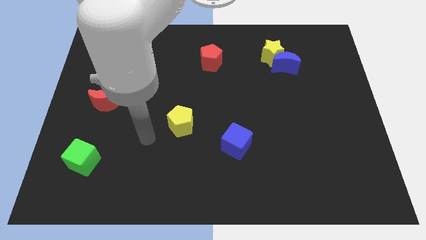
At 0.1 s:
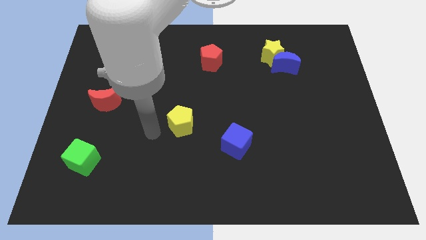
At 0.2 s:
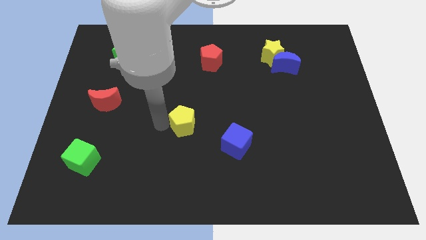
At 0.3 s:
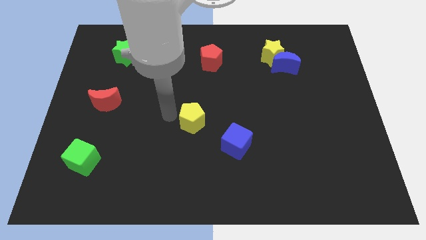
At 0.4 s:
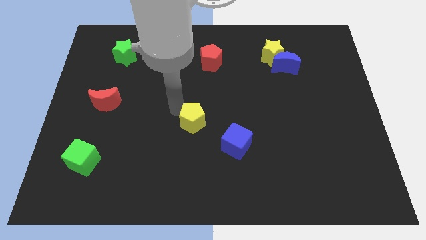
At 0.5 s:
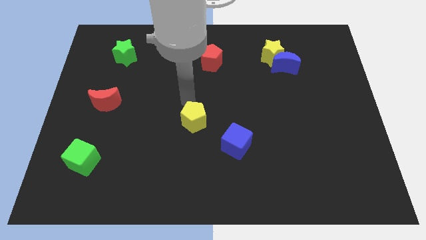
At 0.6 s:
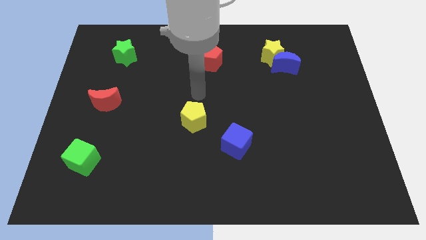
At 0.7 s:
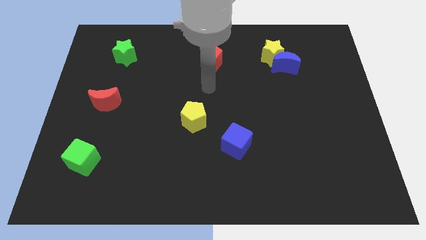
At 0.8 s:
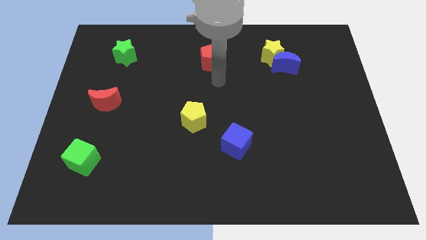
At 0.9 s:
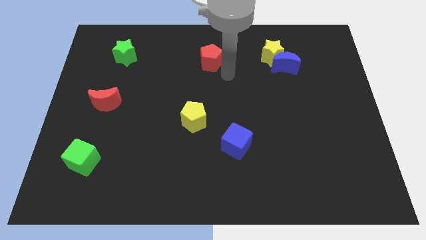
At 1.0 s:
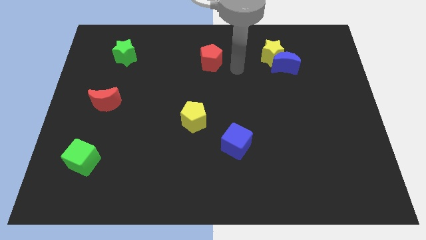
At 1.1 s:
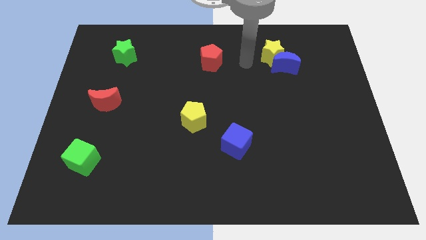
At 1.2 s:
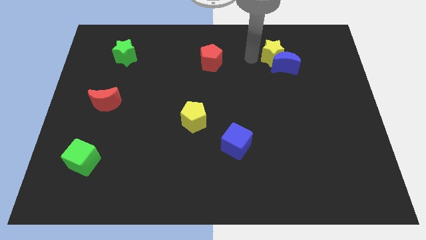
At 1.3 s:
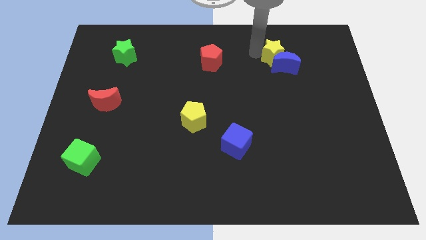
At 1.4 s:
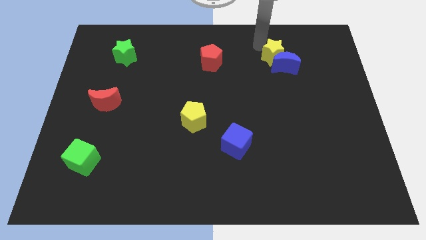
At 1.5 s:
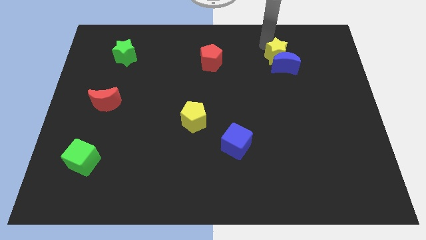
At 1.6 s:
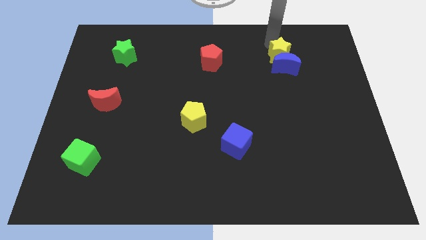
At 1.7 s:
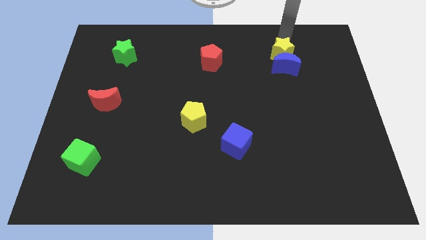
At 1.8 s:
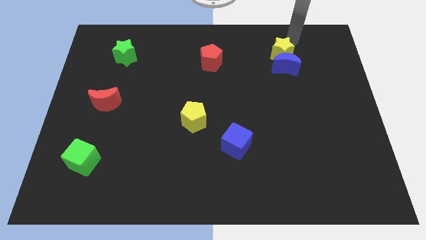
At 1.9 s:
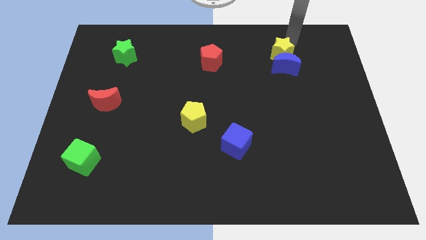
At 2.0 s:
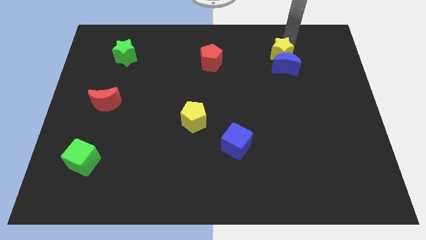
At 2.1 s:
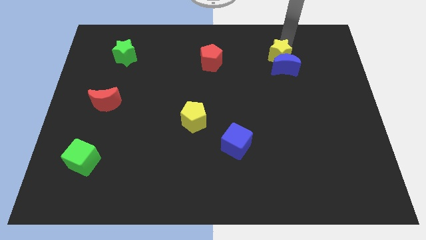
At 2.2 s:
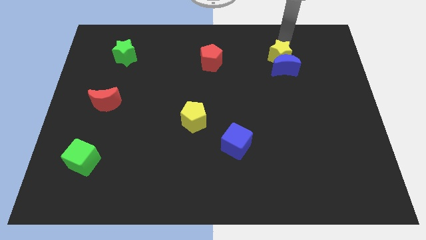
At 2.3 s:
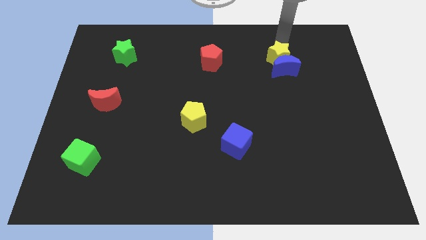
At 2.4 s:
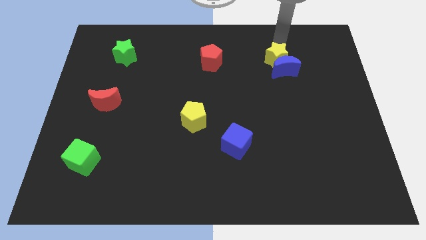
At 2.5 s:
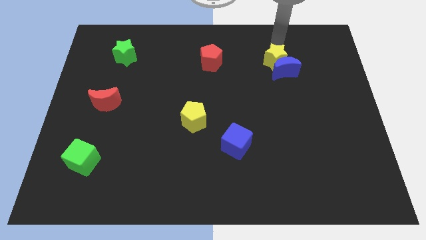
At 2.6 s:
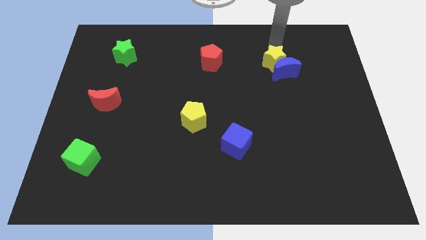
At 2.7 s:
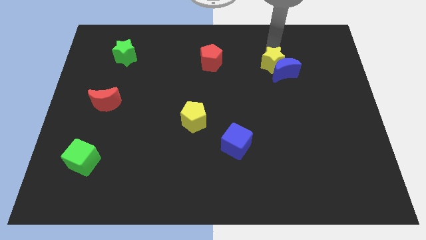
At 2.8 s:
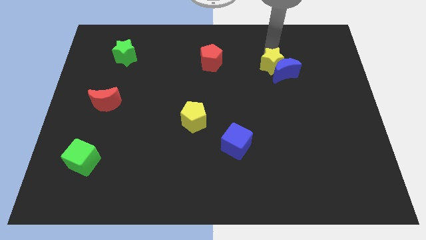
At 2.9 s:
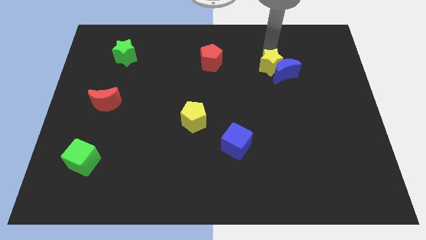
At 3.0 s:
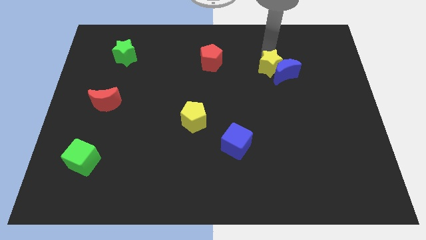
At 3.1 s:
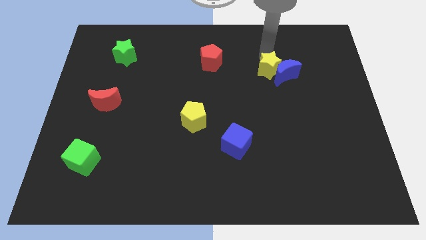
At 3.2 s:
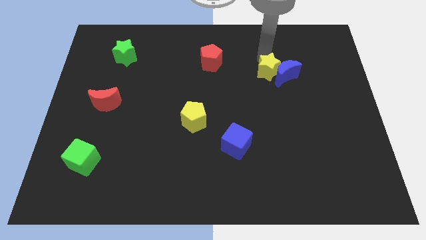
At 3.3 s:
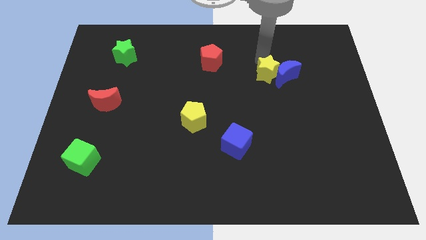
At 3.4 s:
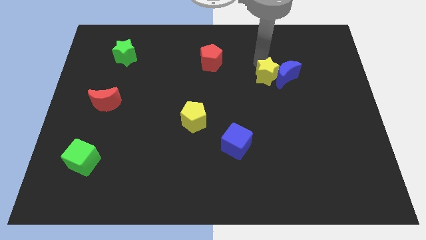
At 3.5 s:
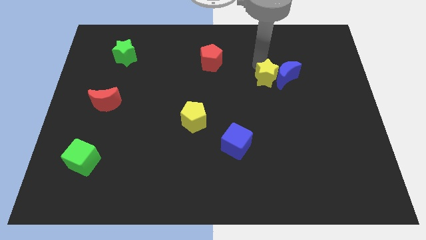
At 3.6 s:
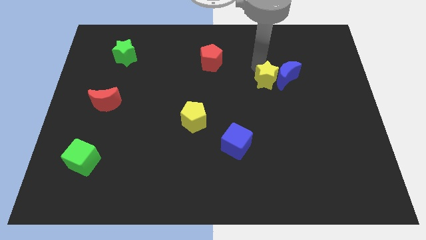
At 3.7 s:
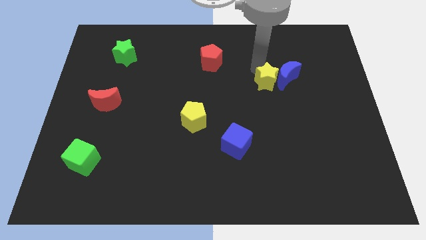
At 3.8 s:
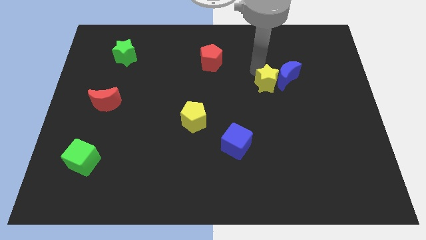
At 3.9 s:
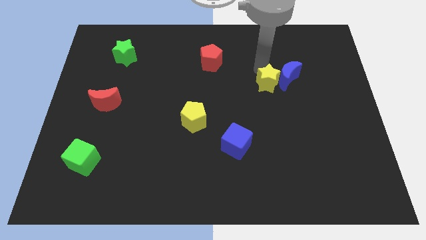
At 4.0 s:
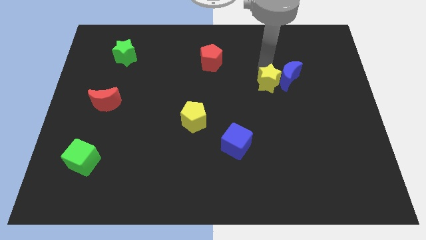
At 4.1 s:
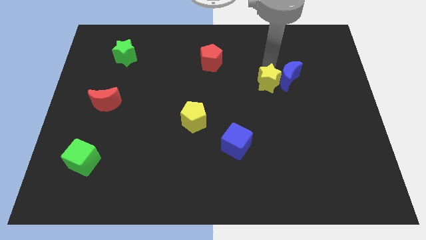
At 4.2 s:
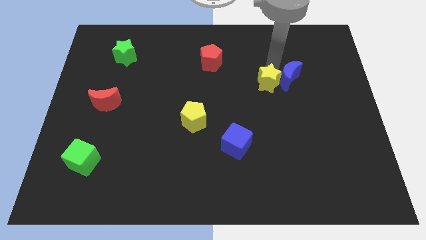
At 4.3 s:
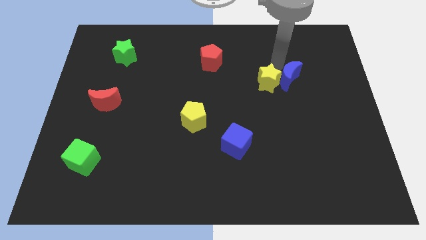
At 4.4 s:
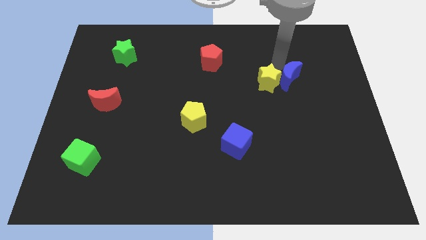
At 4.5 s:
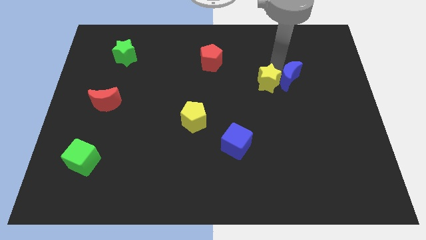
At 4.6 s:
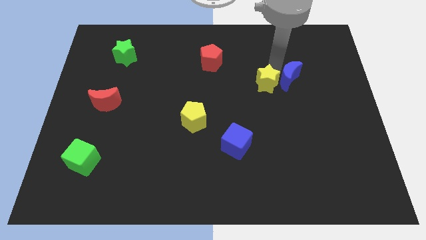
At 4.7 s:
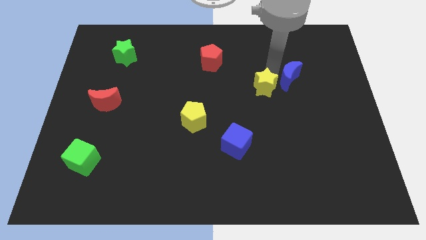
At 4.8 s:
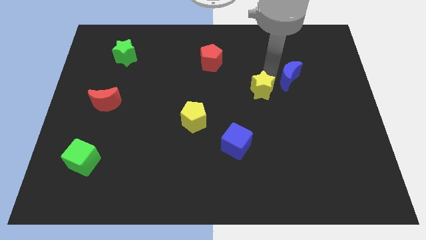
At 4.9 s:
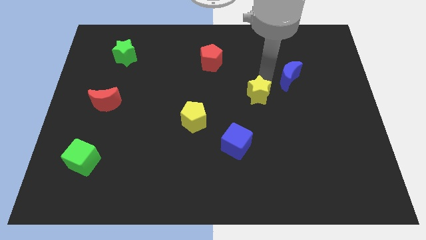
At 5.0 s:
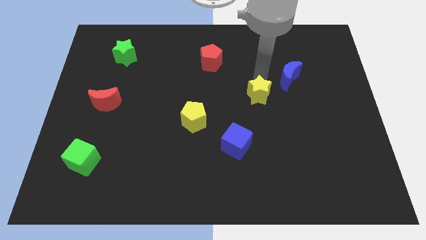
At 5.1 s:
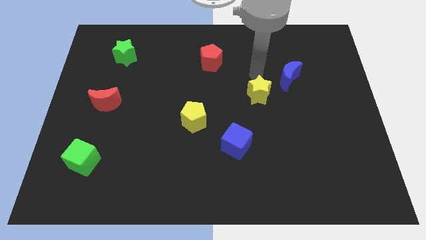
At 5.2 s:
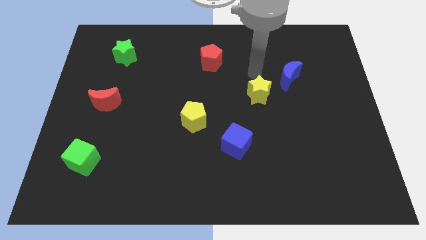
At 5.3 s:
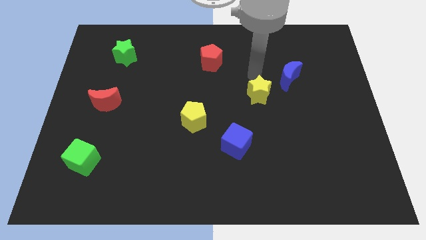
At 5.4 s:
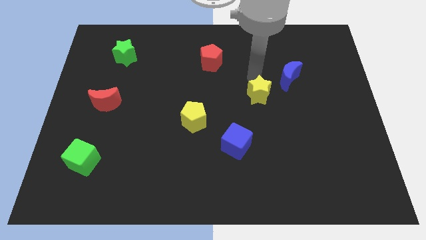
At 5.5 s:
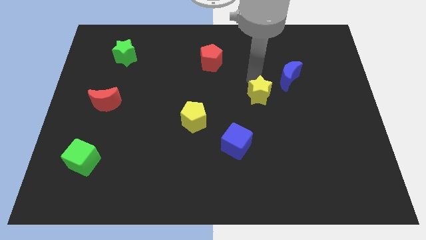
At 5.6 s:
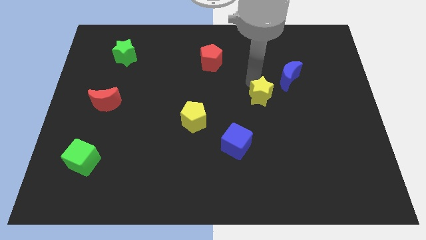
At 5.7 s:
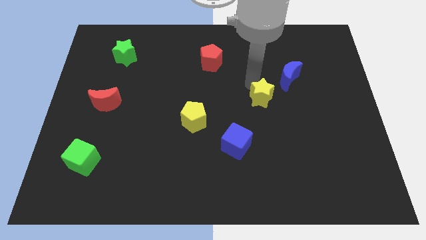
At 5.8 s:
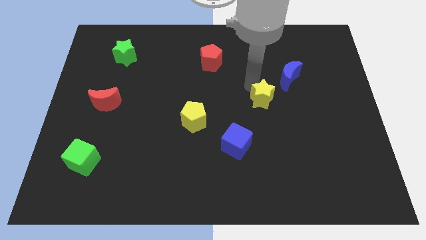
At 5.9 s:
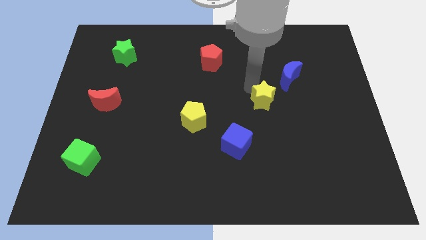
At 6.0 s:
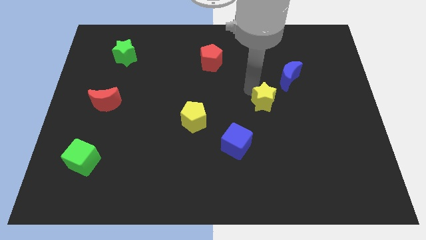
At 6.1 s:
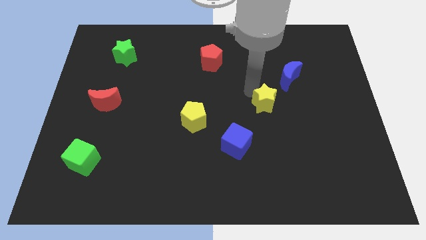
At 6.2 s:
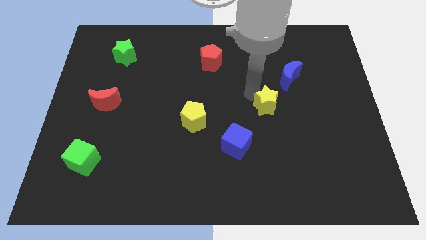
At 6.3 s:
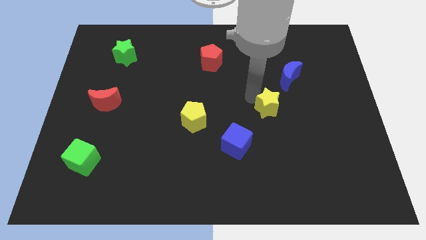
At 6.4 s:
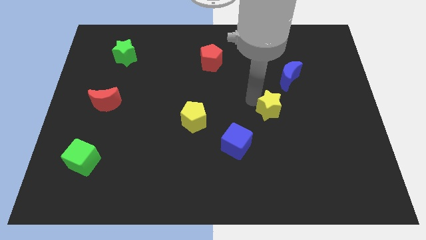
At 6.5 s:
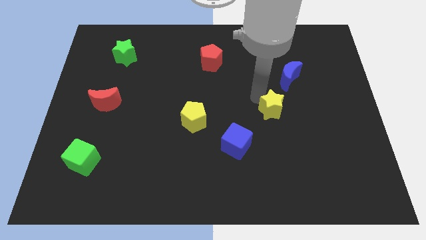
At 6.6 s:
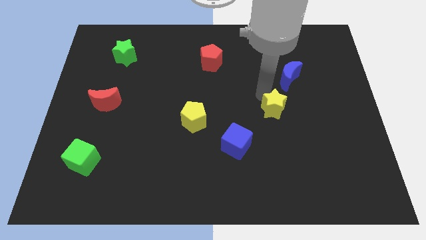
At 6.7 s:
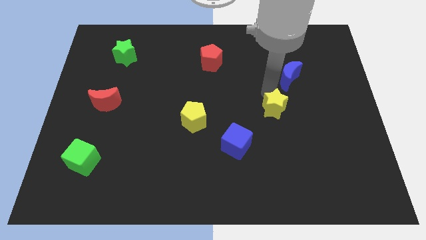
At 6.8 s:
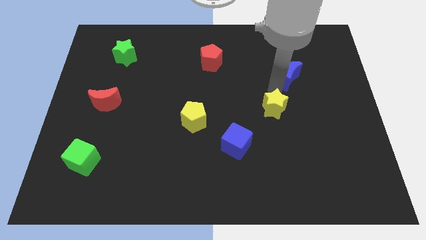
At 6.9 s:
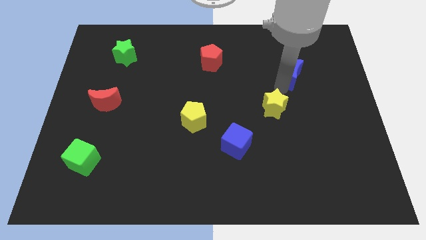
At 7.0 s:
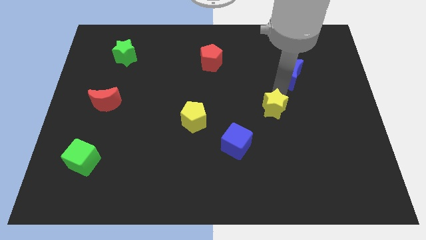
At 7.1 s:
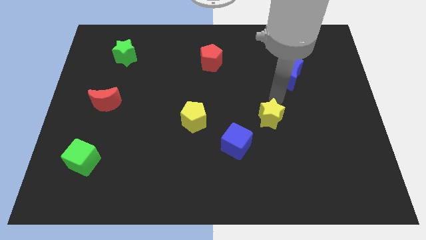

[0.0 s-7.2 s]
move the yellow star downwards

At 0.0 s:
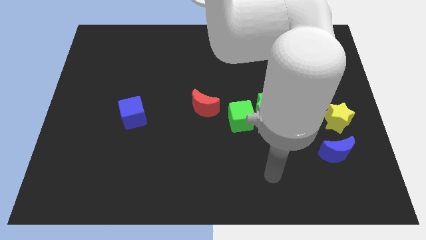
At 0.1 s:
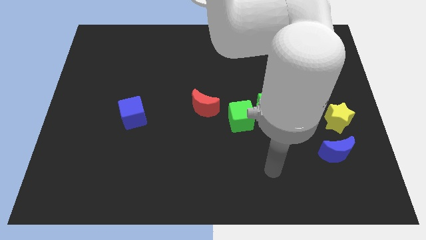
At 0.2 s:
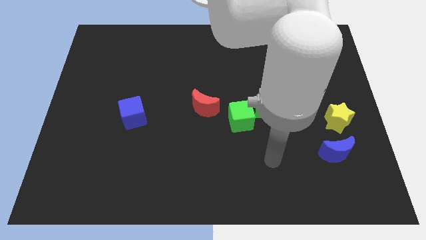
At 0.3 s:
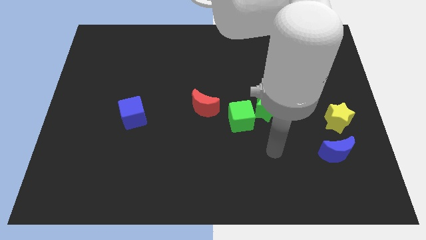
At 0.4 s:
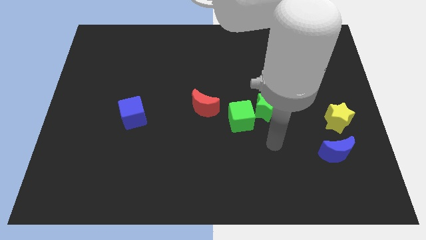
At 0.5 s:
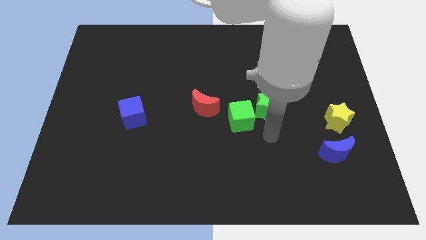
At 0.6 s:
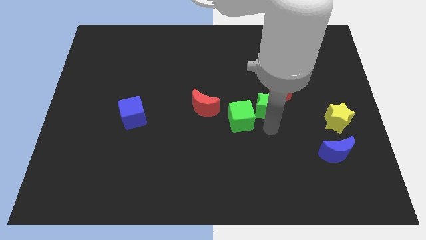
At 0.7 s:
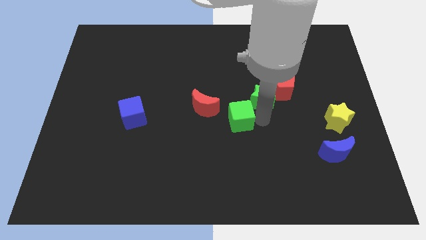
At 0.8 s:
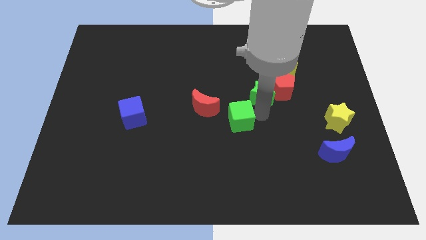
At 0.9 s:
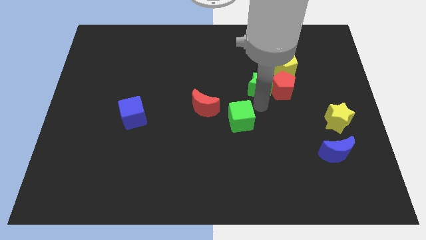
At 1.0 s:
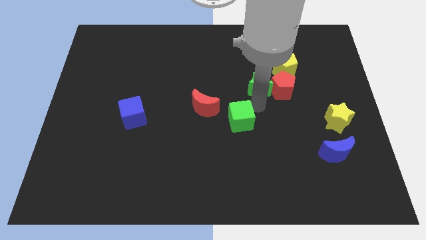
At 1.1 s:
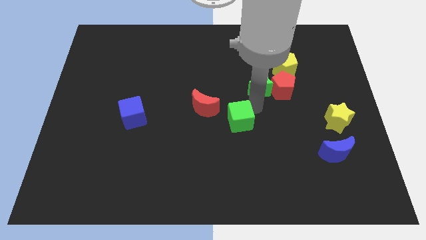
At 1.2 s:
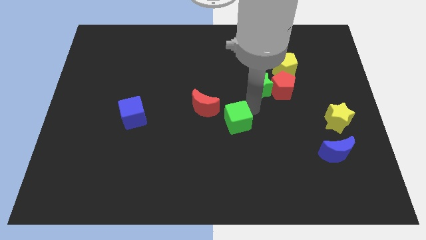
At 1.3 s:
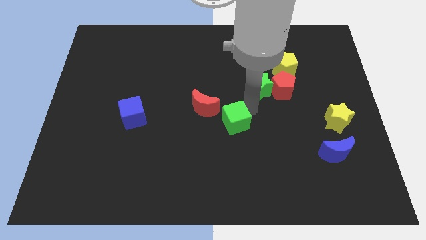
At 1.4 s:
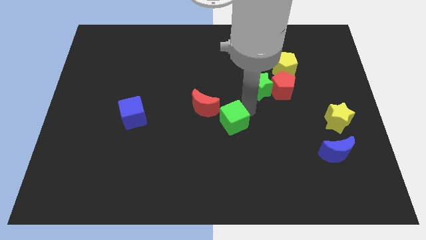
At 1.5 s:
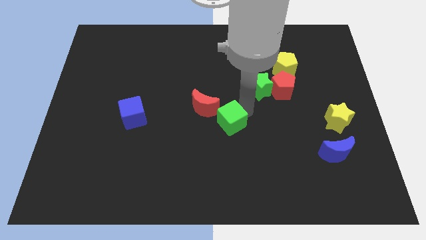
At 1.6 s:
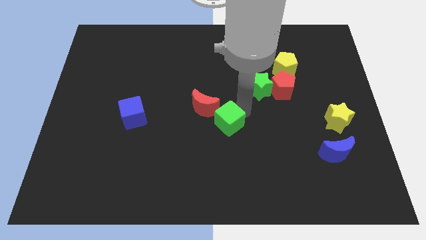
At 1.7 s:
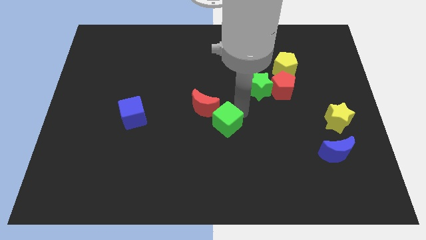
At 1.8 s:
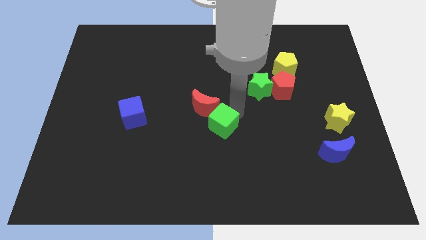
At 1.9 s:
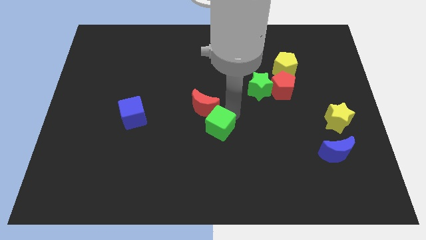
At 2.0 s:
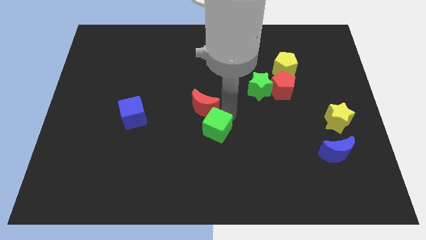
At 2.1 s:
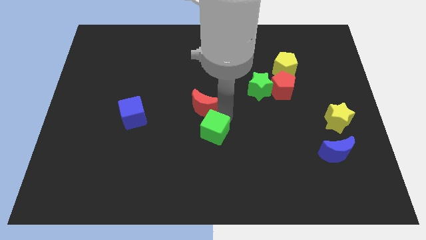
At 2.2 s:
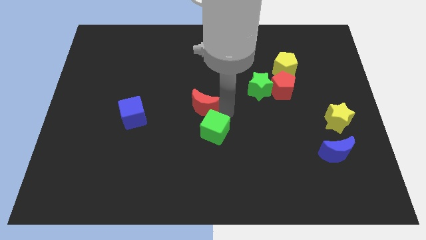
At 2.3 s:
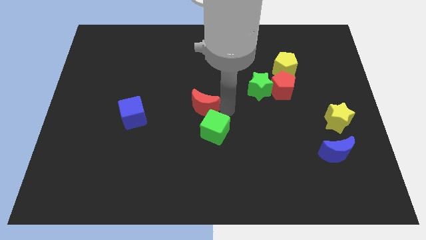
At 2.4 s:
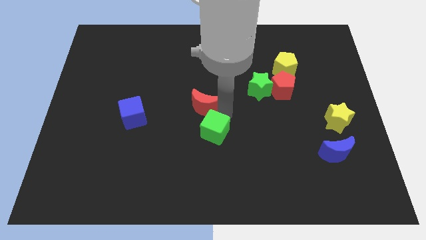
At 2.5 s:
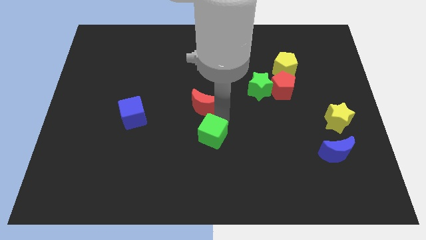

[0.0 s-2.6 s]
move the green cube slightly down and left
